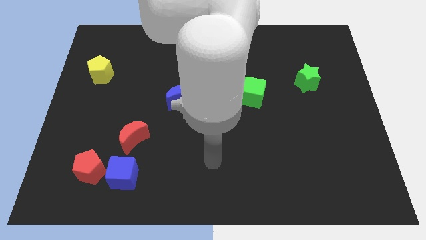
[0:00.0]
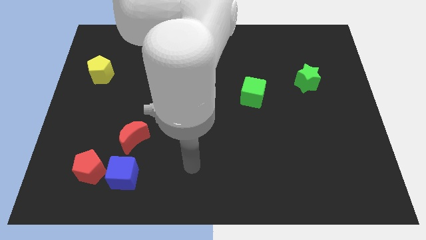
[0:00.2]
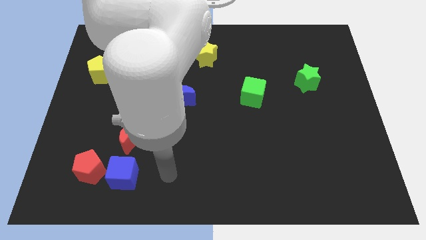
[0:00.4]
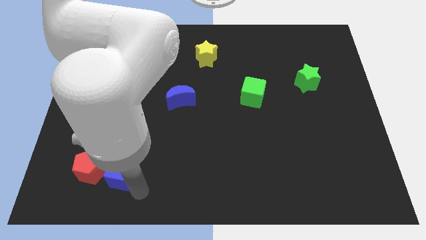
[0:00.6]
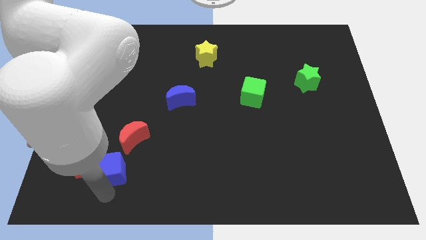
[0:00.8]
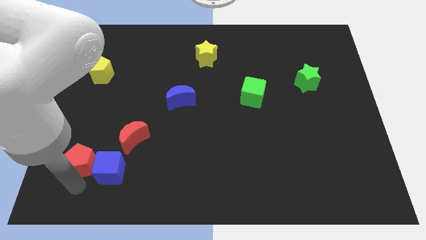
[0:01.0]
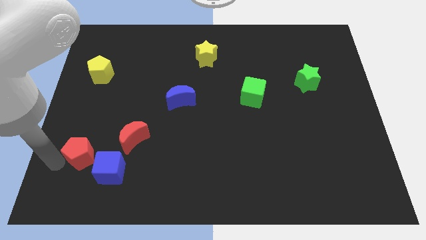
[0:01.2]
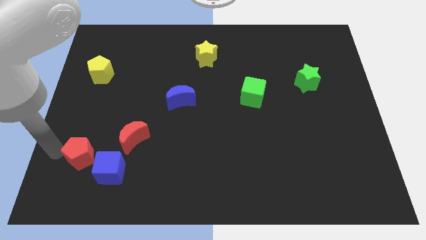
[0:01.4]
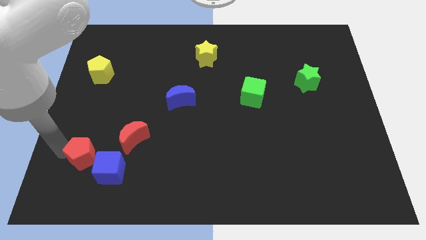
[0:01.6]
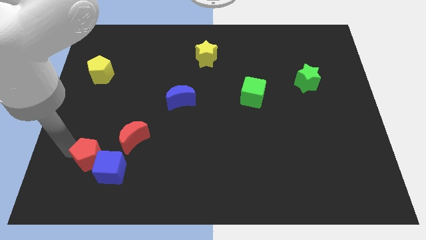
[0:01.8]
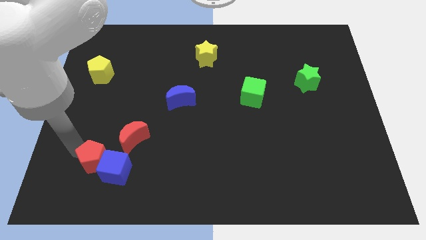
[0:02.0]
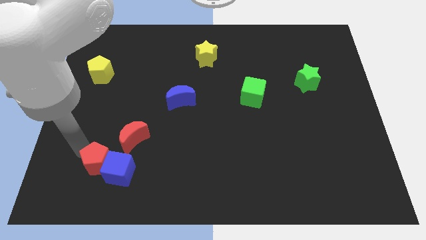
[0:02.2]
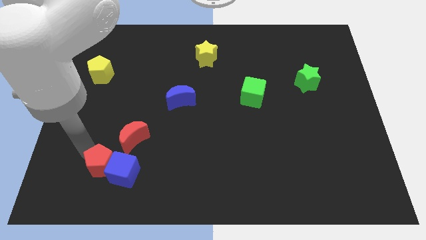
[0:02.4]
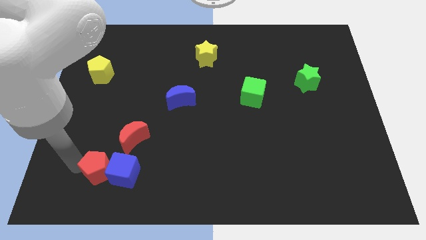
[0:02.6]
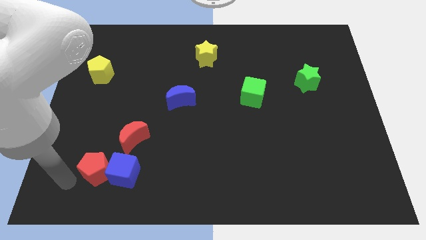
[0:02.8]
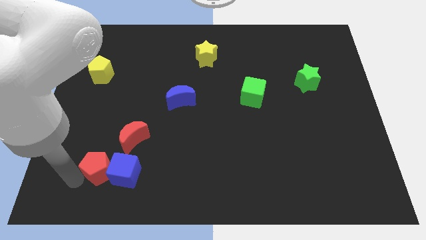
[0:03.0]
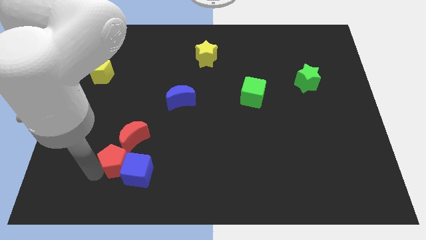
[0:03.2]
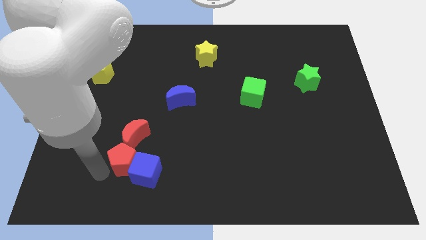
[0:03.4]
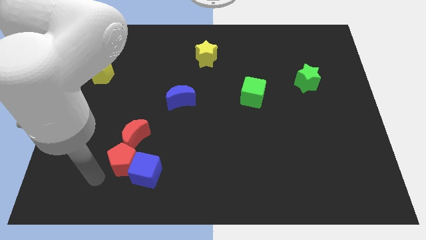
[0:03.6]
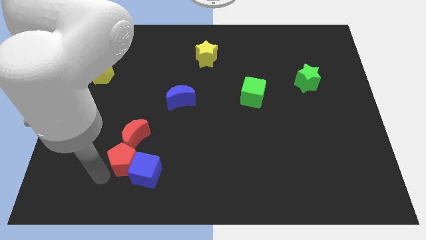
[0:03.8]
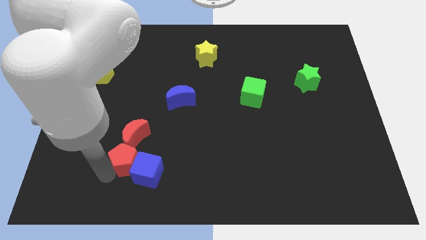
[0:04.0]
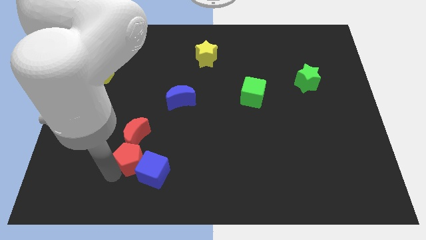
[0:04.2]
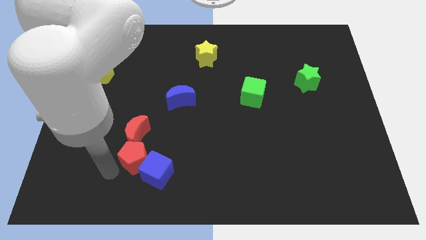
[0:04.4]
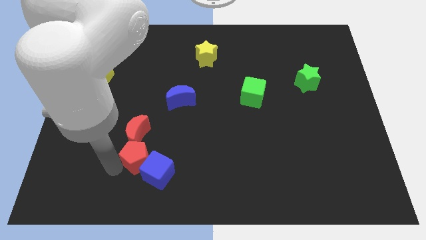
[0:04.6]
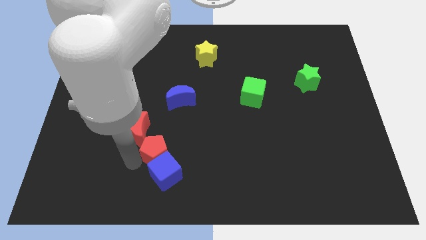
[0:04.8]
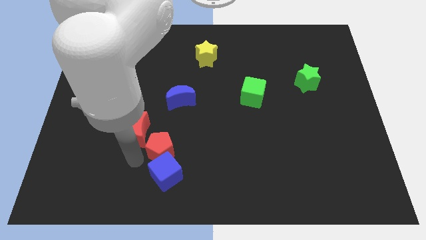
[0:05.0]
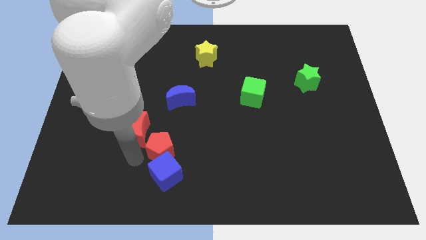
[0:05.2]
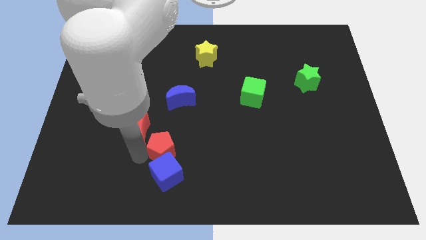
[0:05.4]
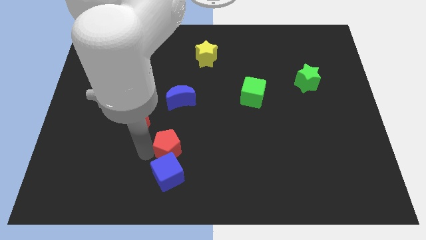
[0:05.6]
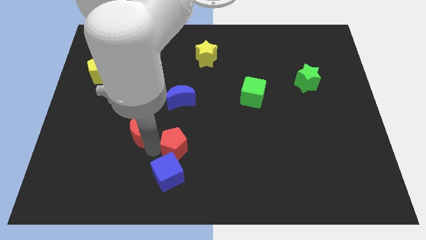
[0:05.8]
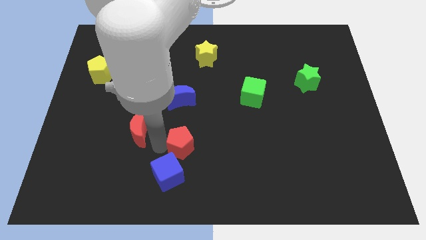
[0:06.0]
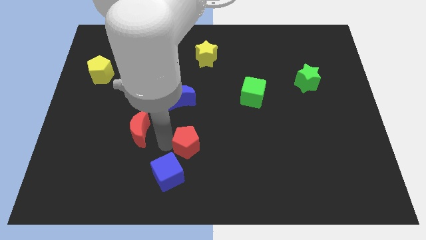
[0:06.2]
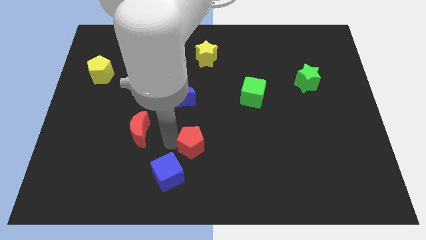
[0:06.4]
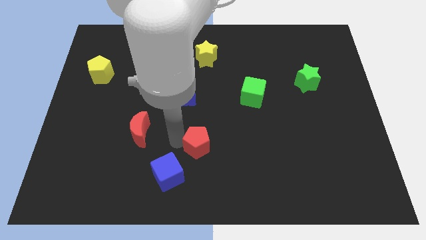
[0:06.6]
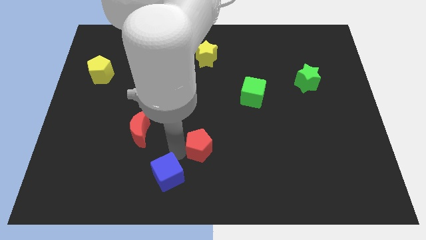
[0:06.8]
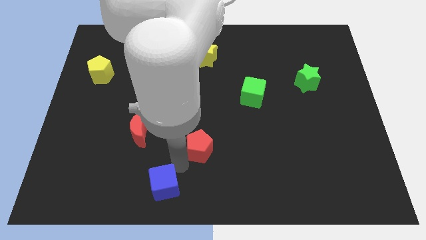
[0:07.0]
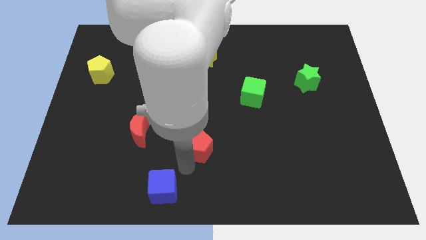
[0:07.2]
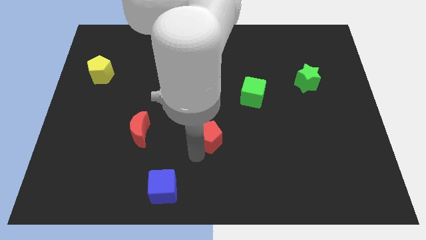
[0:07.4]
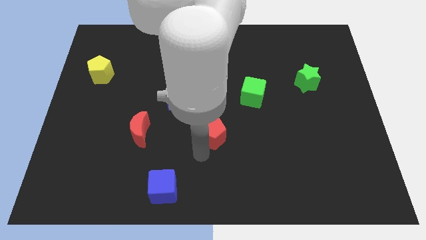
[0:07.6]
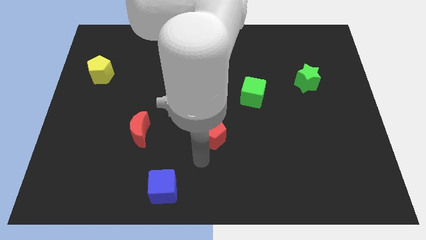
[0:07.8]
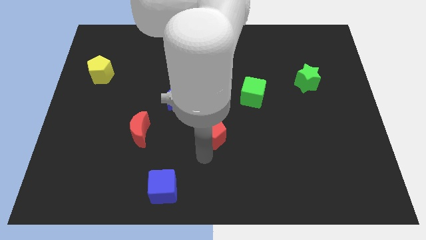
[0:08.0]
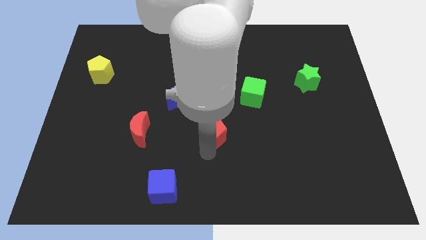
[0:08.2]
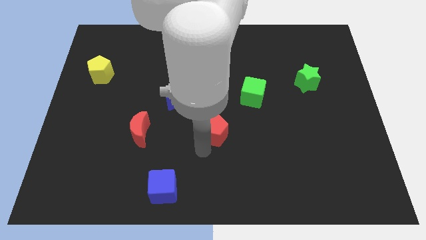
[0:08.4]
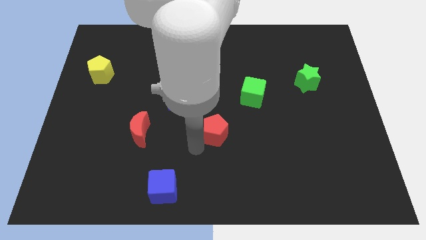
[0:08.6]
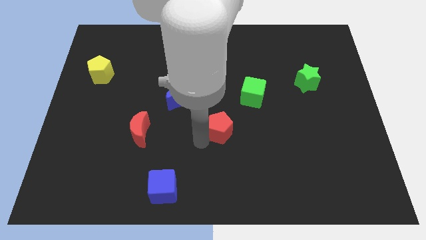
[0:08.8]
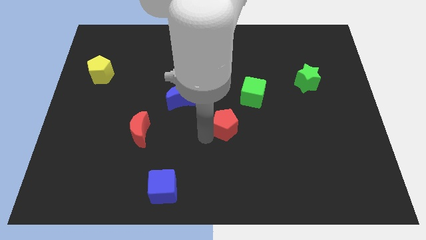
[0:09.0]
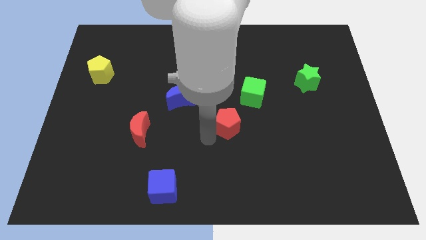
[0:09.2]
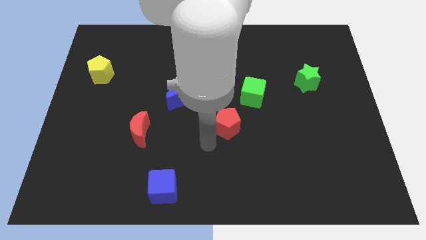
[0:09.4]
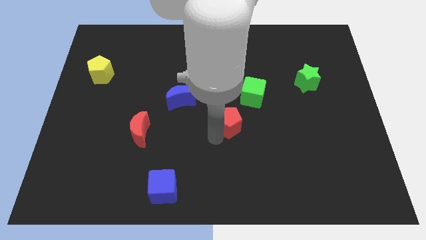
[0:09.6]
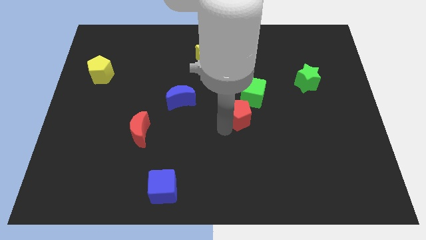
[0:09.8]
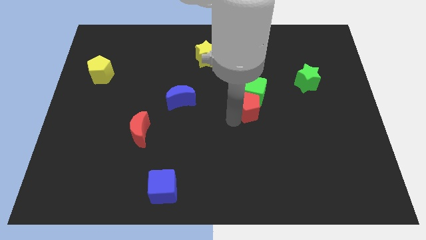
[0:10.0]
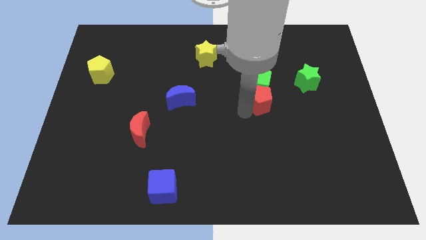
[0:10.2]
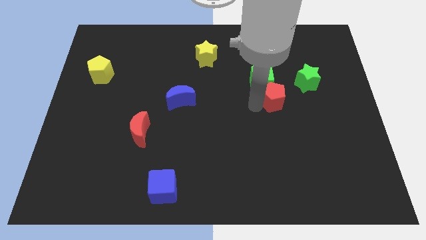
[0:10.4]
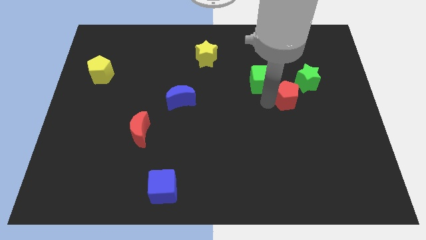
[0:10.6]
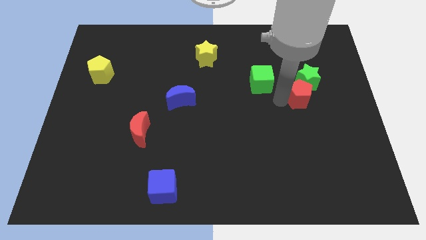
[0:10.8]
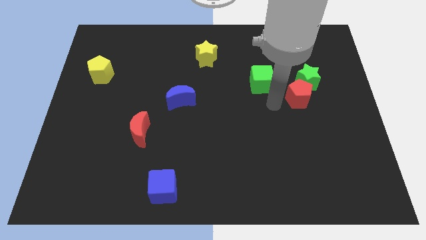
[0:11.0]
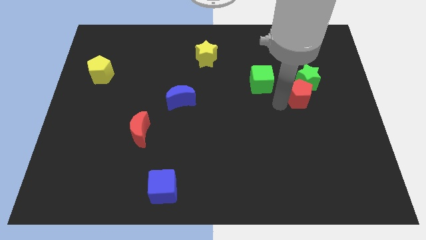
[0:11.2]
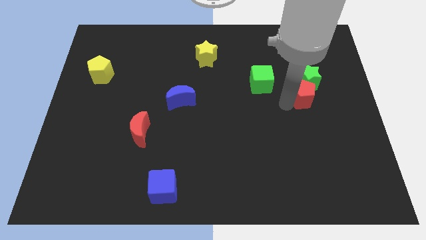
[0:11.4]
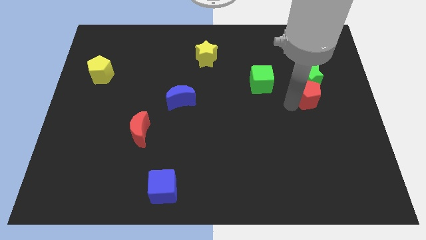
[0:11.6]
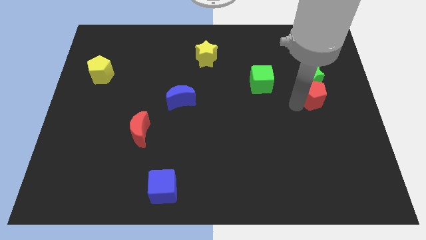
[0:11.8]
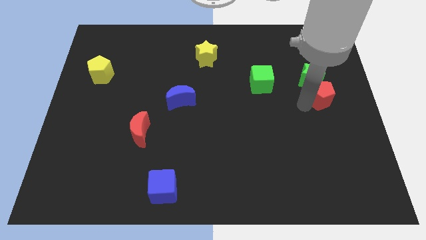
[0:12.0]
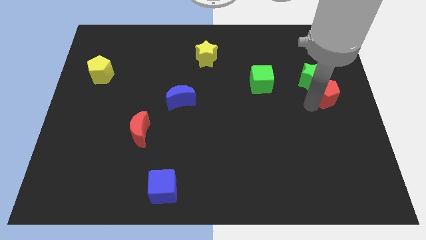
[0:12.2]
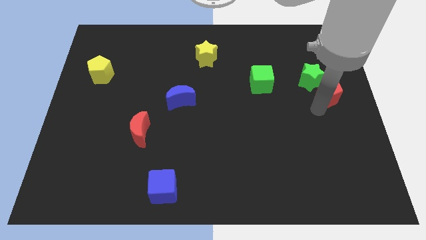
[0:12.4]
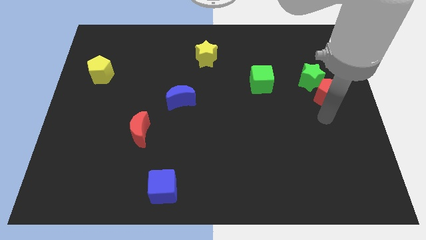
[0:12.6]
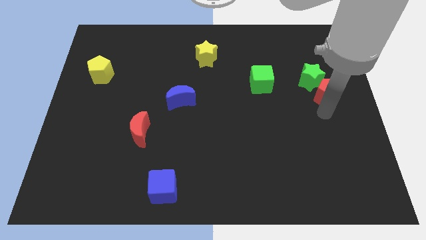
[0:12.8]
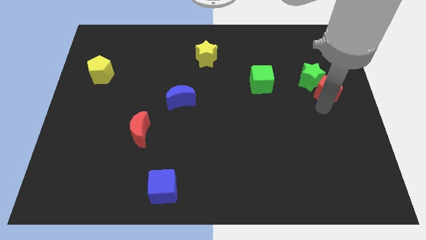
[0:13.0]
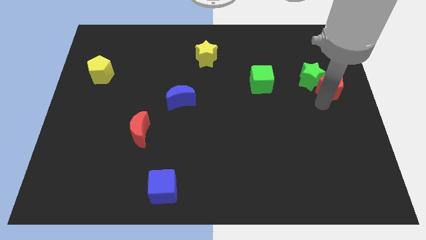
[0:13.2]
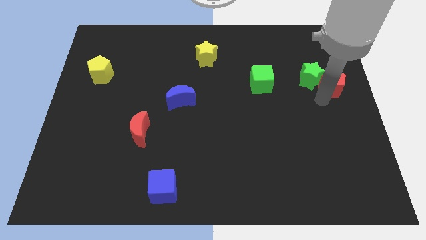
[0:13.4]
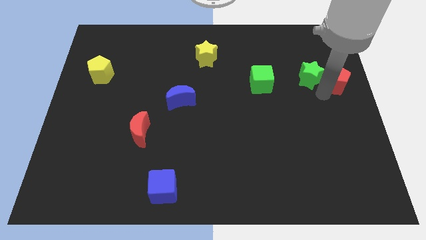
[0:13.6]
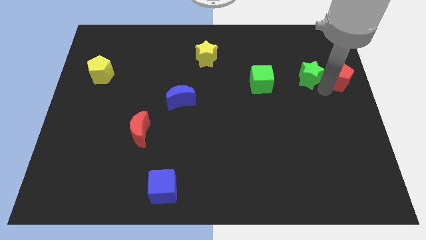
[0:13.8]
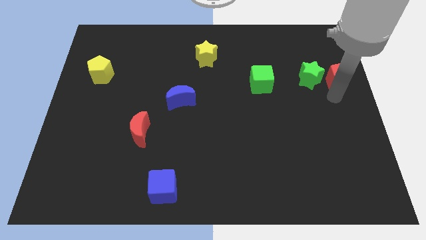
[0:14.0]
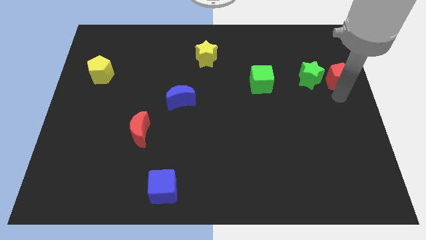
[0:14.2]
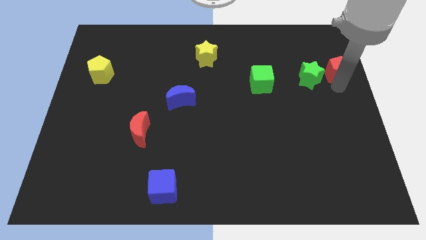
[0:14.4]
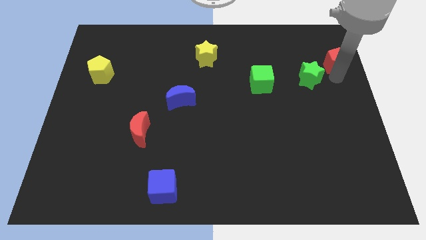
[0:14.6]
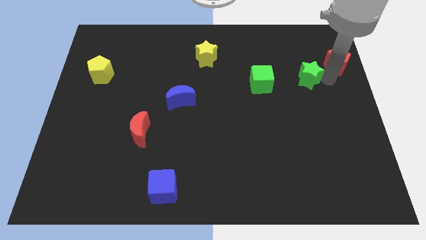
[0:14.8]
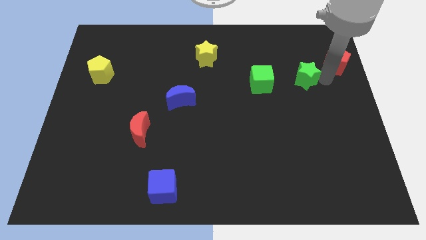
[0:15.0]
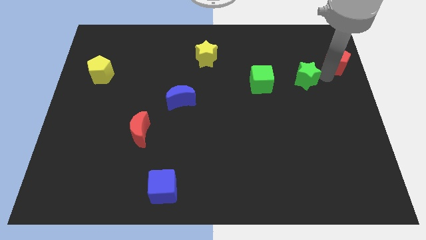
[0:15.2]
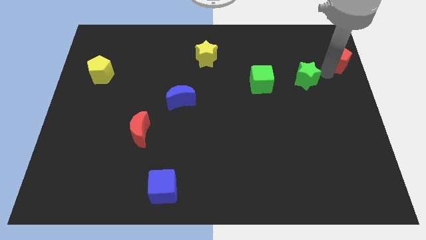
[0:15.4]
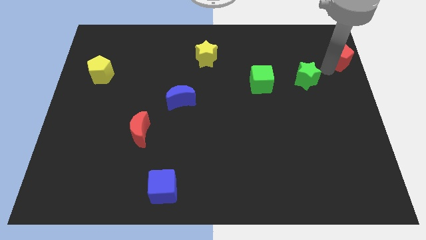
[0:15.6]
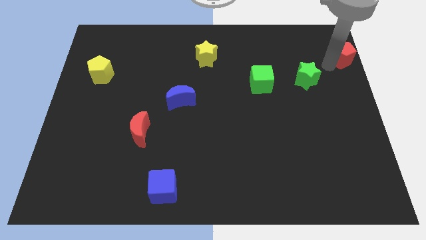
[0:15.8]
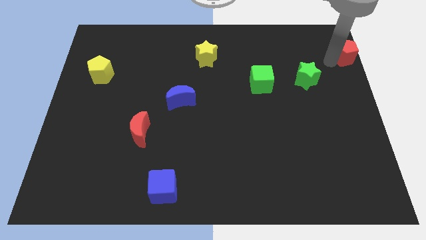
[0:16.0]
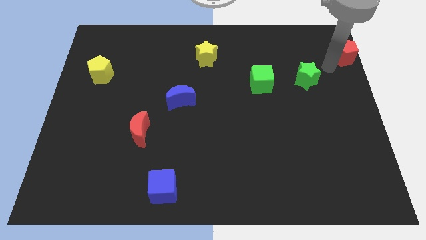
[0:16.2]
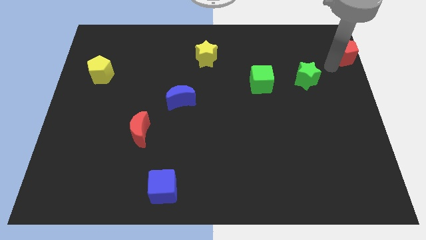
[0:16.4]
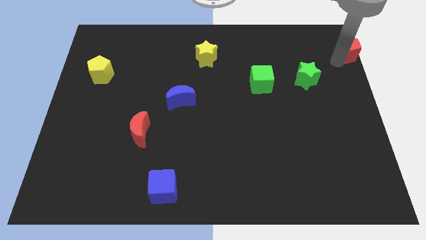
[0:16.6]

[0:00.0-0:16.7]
slide the red pentagon to the top right
